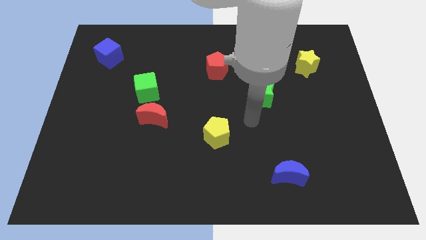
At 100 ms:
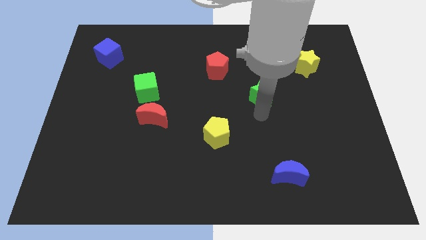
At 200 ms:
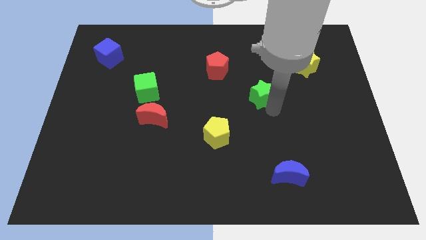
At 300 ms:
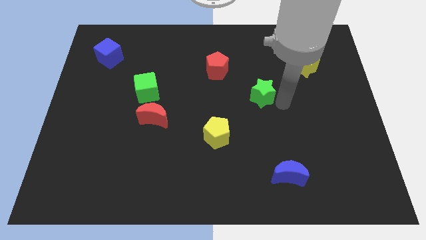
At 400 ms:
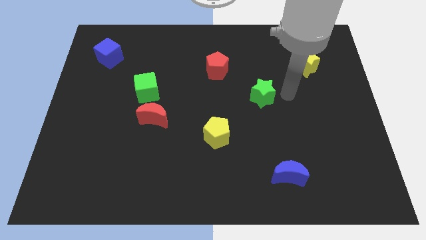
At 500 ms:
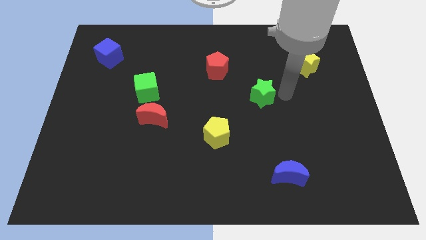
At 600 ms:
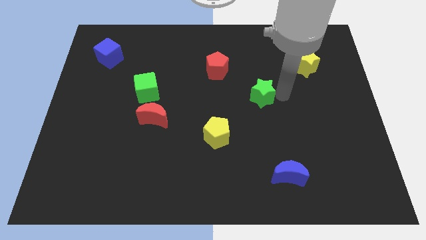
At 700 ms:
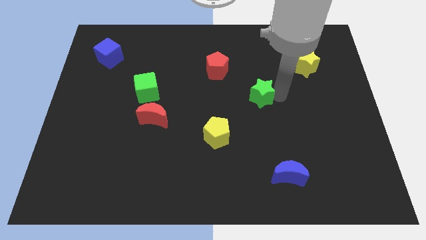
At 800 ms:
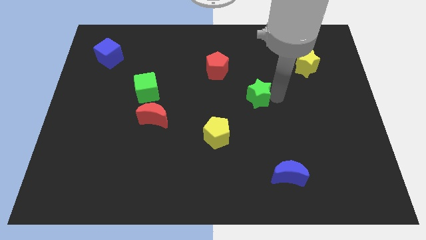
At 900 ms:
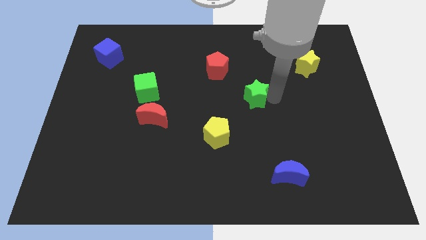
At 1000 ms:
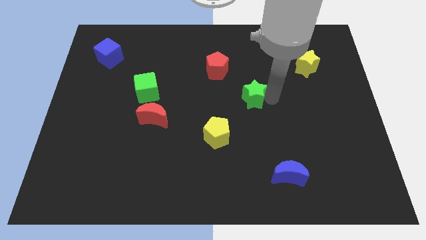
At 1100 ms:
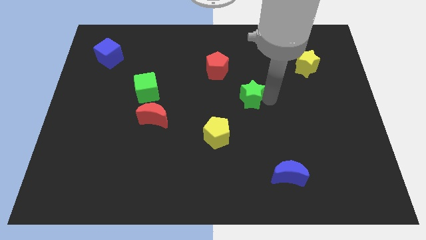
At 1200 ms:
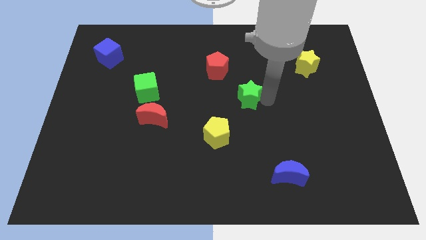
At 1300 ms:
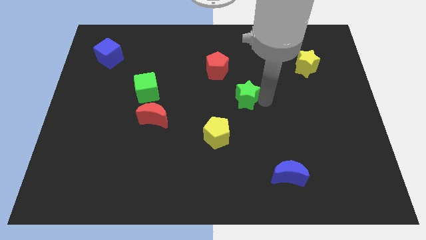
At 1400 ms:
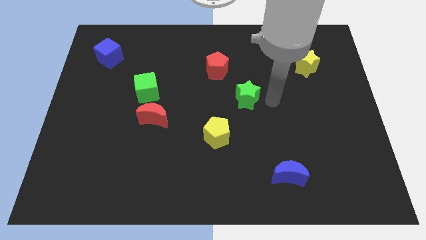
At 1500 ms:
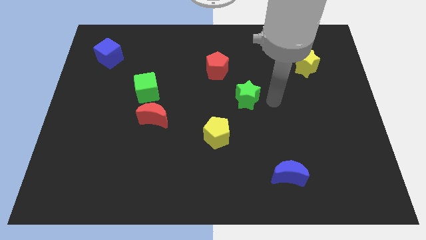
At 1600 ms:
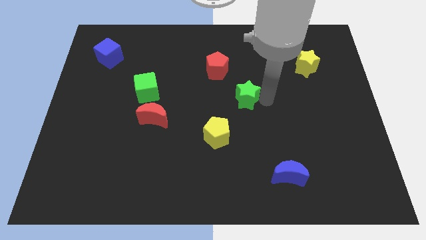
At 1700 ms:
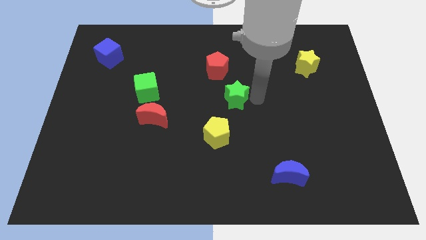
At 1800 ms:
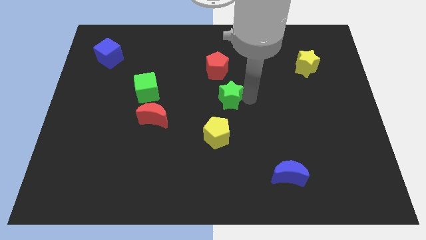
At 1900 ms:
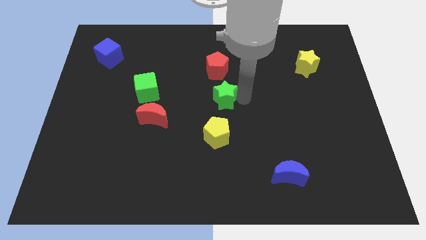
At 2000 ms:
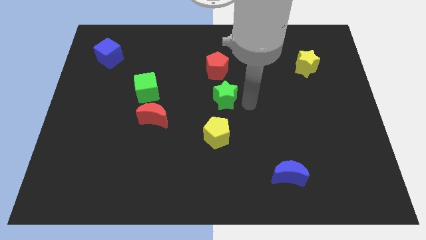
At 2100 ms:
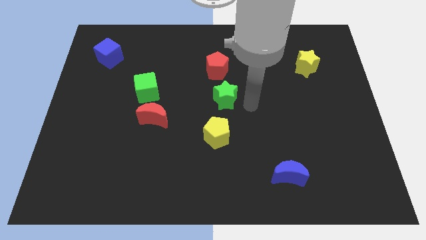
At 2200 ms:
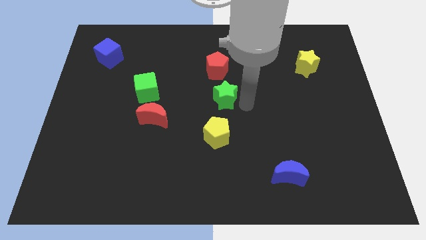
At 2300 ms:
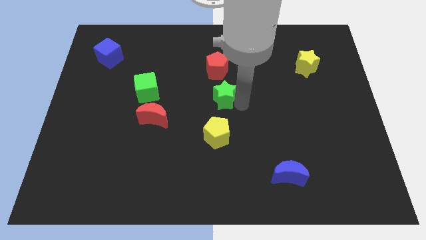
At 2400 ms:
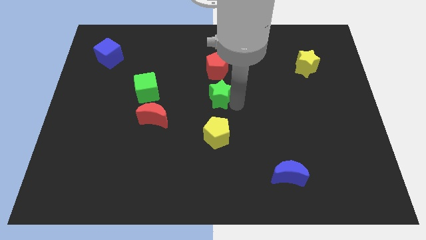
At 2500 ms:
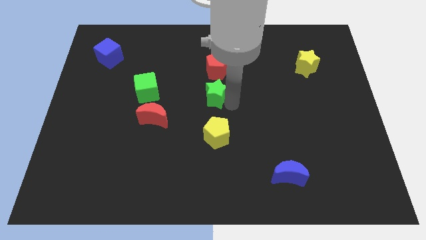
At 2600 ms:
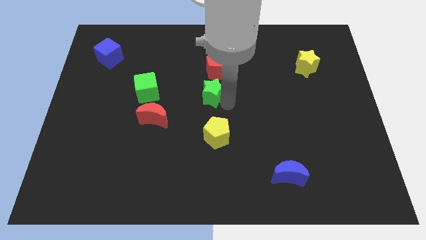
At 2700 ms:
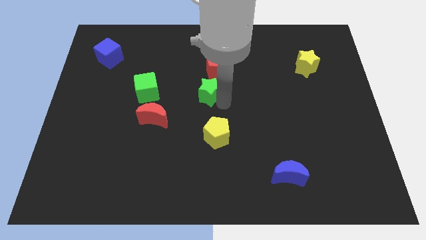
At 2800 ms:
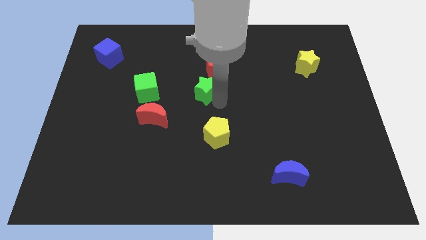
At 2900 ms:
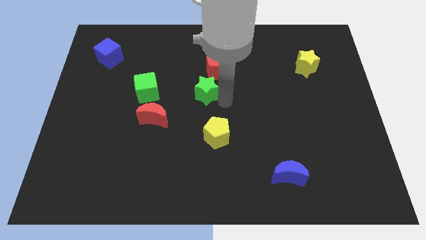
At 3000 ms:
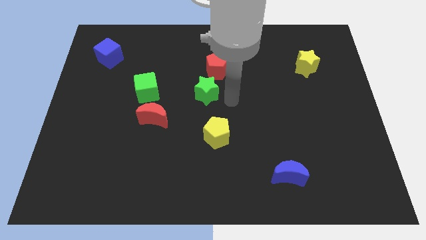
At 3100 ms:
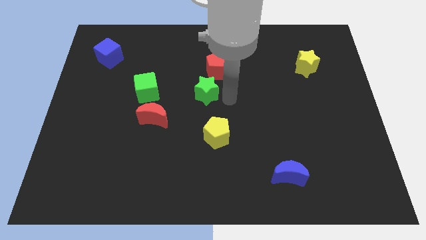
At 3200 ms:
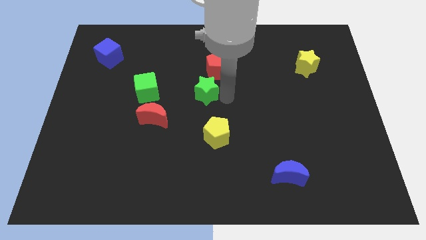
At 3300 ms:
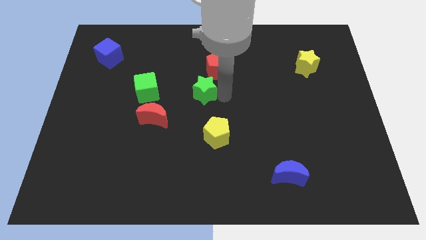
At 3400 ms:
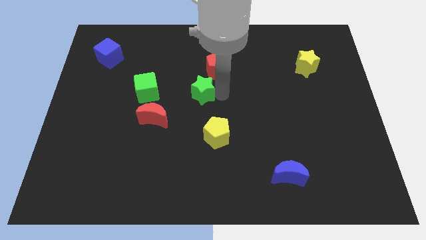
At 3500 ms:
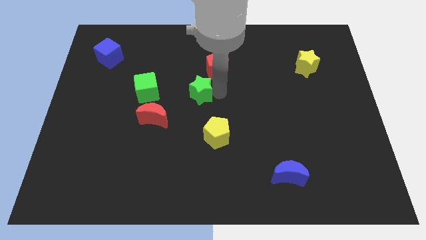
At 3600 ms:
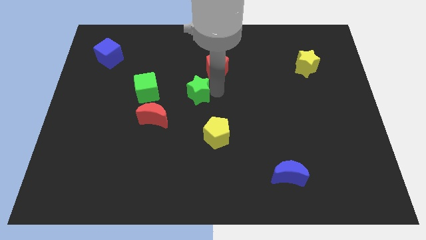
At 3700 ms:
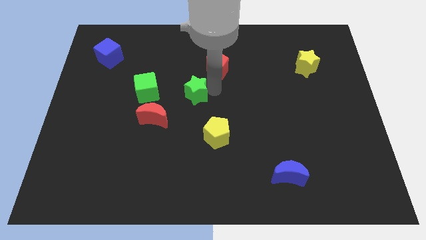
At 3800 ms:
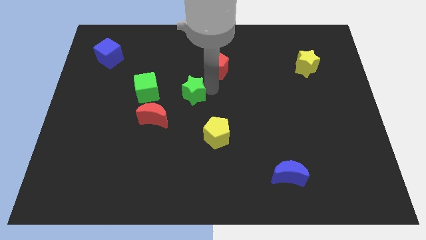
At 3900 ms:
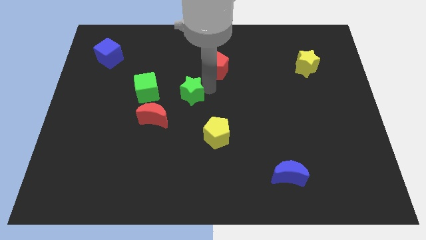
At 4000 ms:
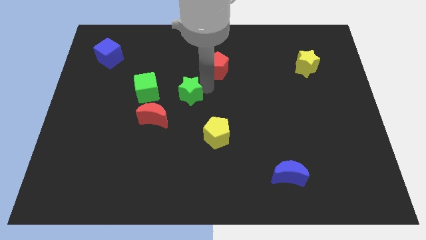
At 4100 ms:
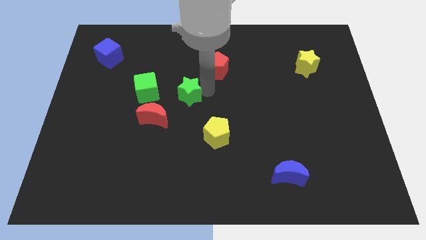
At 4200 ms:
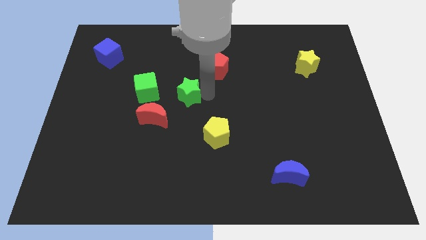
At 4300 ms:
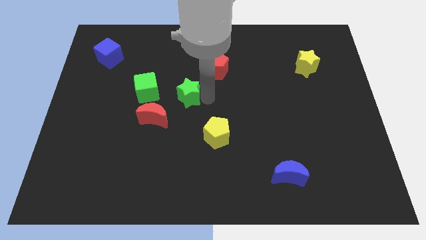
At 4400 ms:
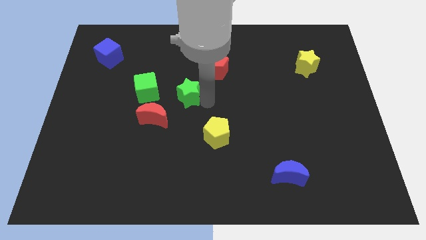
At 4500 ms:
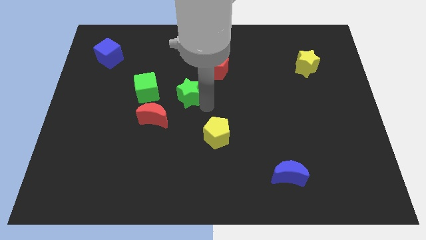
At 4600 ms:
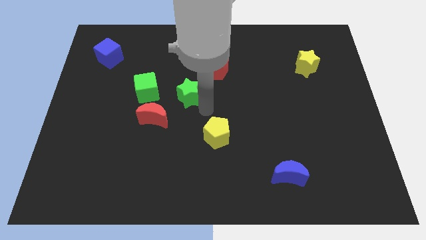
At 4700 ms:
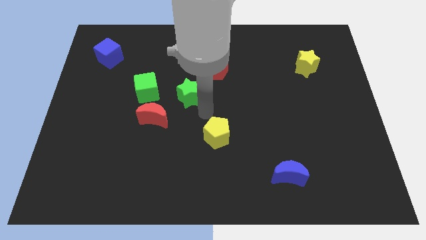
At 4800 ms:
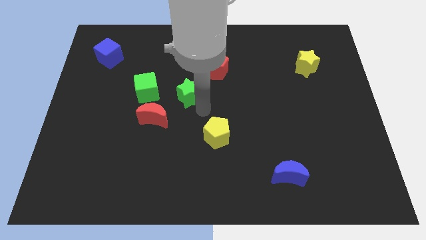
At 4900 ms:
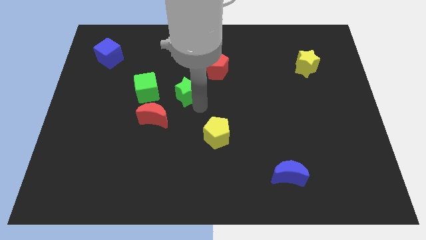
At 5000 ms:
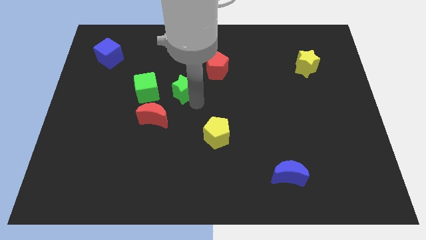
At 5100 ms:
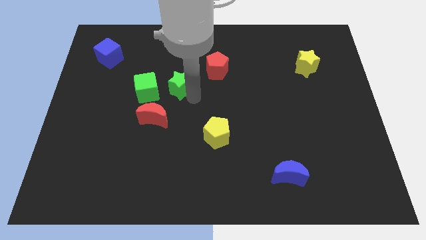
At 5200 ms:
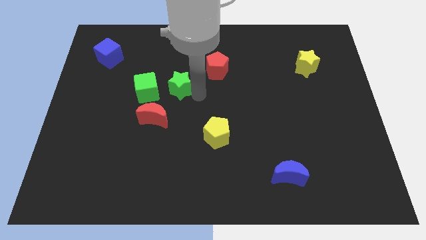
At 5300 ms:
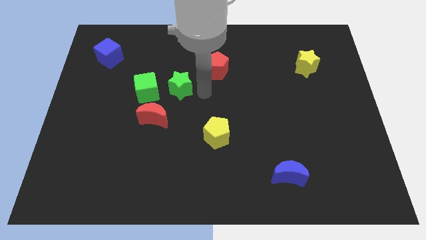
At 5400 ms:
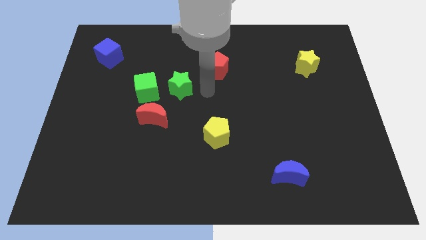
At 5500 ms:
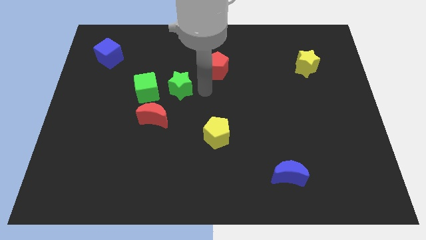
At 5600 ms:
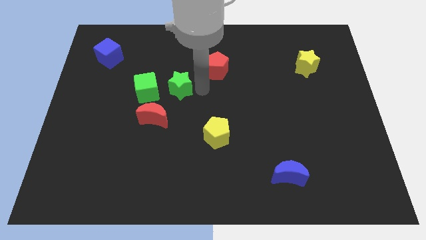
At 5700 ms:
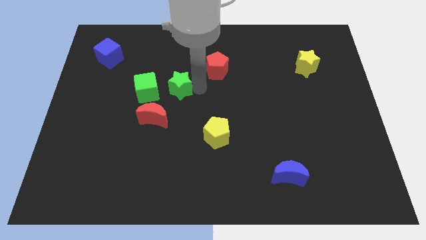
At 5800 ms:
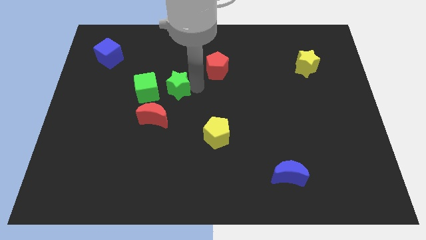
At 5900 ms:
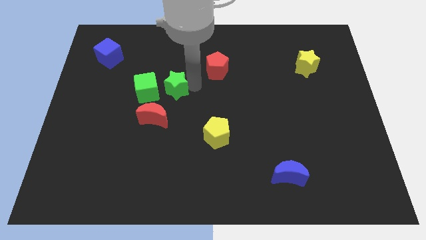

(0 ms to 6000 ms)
move the green star above the red moon

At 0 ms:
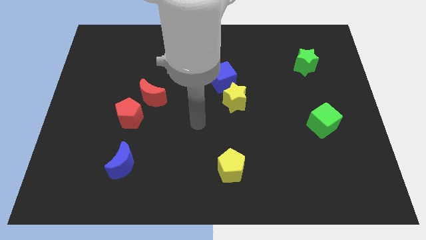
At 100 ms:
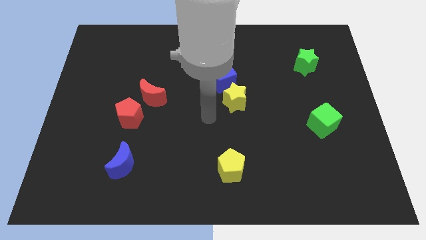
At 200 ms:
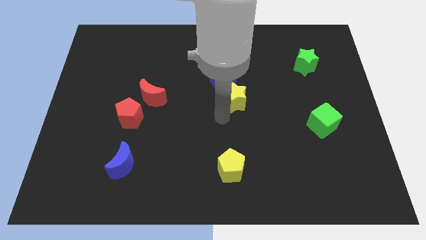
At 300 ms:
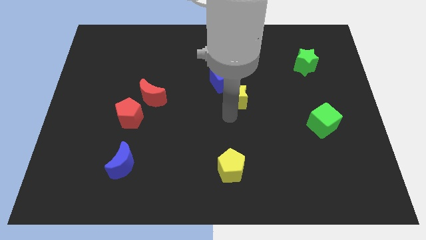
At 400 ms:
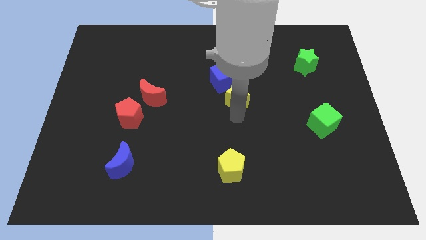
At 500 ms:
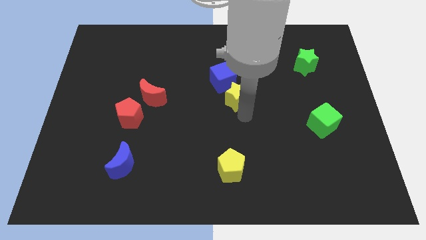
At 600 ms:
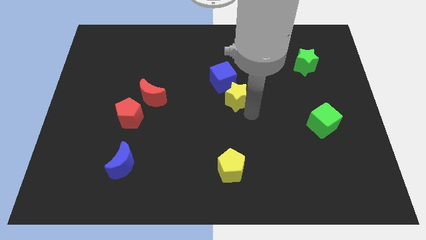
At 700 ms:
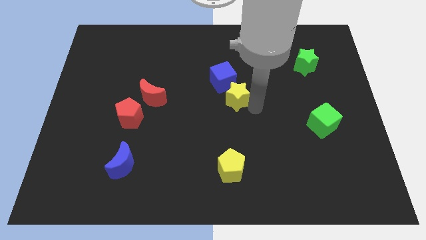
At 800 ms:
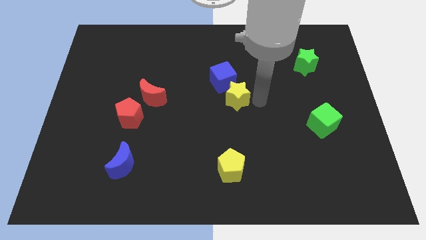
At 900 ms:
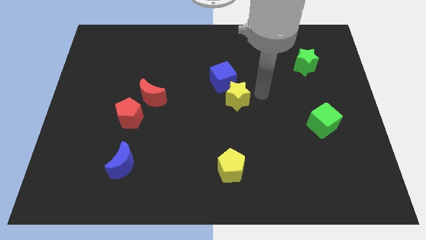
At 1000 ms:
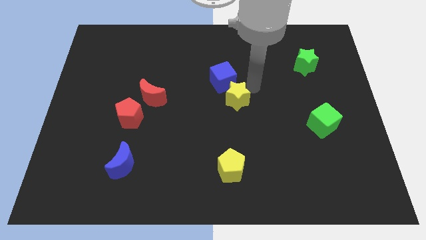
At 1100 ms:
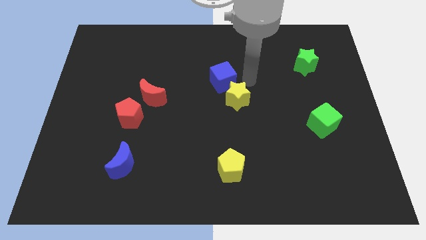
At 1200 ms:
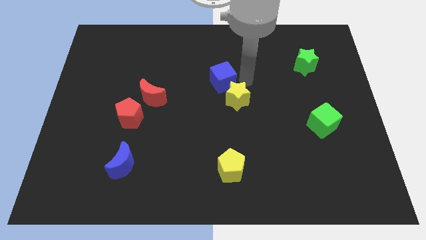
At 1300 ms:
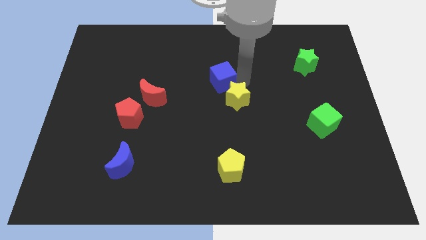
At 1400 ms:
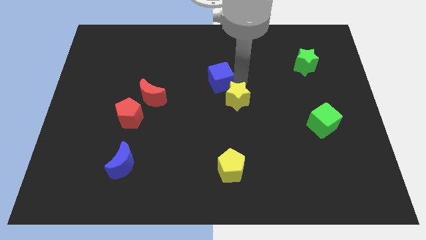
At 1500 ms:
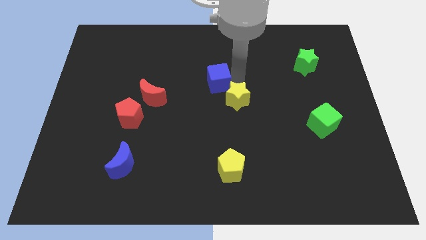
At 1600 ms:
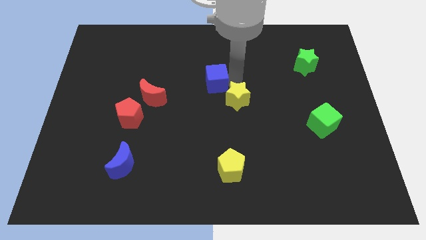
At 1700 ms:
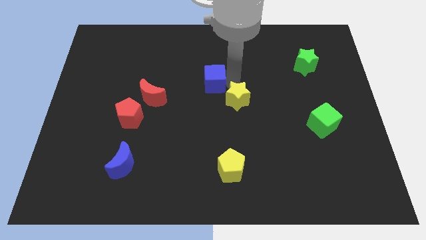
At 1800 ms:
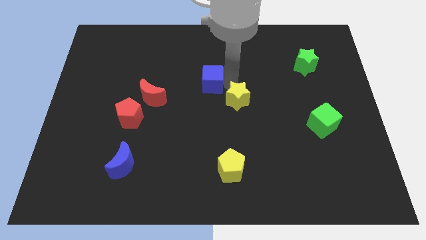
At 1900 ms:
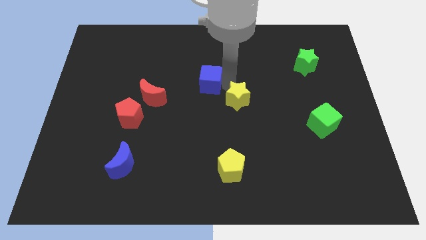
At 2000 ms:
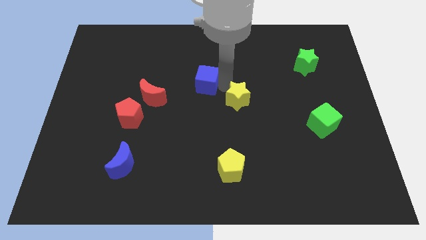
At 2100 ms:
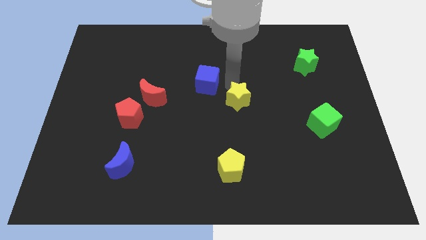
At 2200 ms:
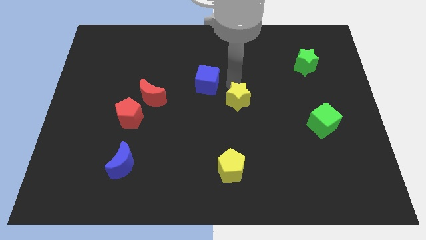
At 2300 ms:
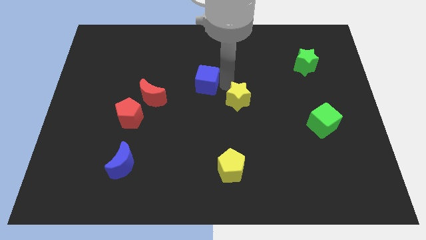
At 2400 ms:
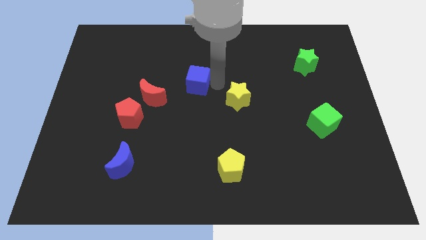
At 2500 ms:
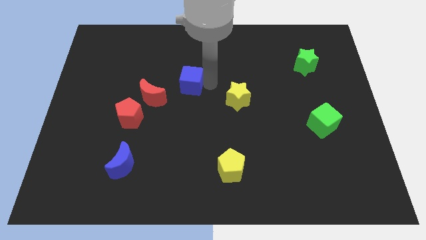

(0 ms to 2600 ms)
move the blue cube to the top right side of the red moon
